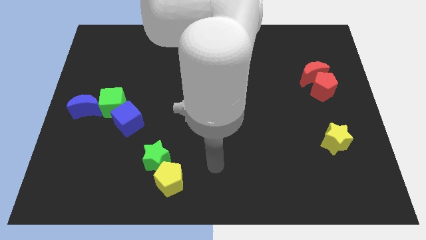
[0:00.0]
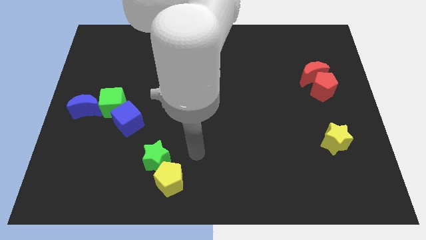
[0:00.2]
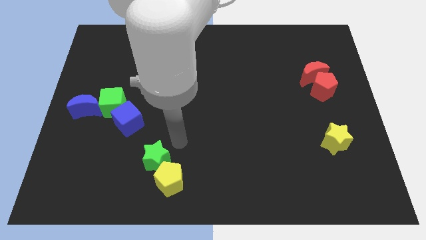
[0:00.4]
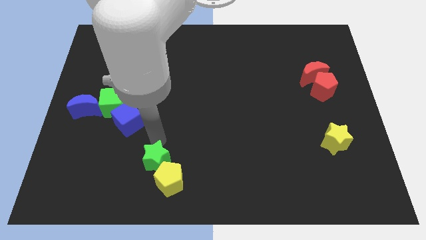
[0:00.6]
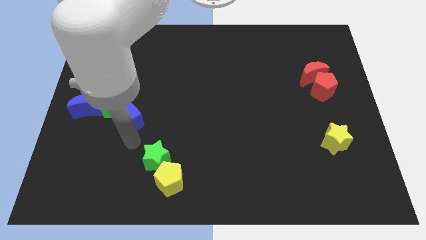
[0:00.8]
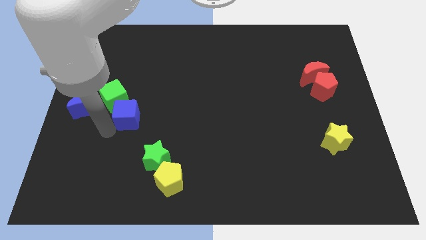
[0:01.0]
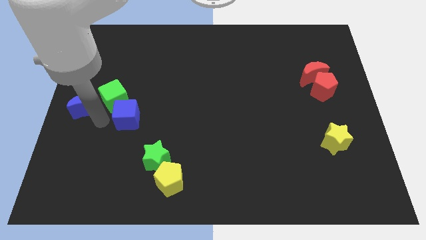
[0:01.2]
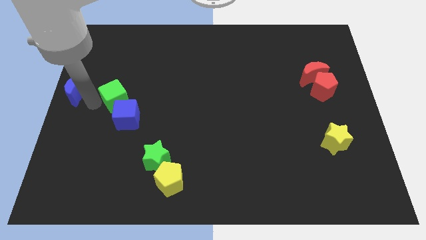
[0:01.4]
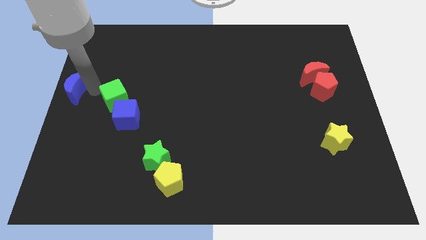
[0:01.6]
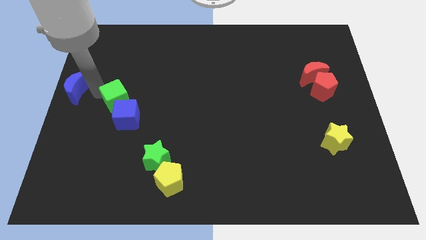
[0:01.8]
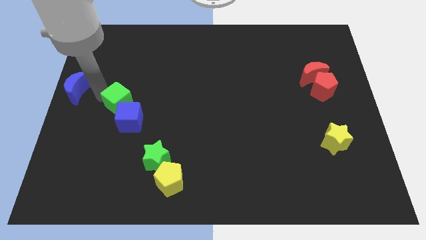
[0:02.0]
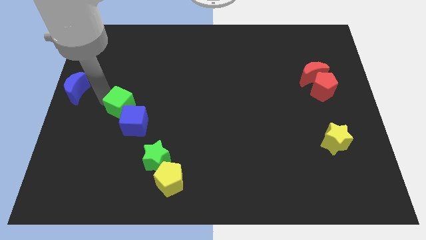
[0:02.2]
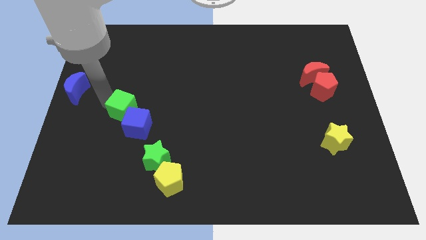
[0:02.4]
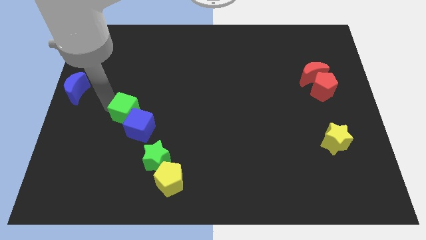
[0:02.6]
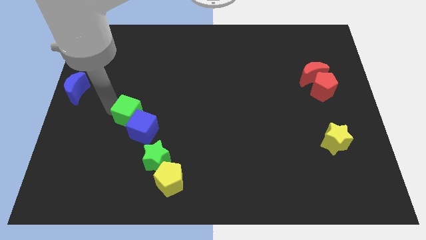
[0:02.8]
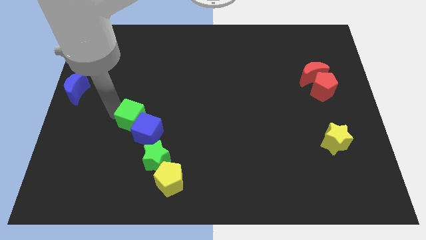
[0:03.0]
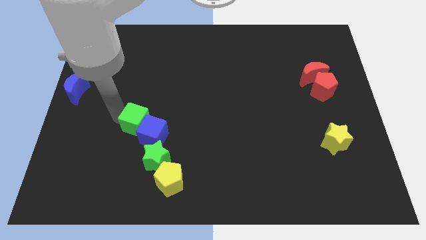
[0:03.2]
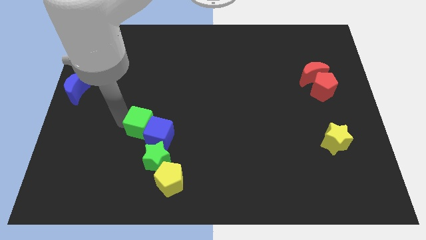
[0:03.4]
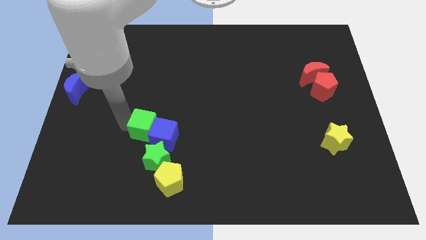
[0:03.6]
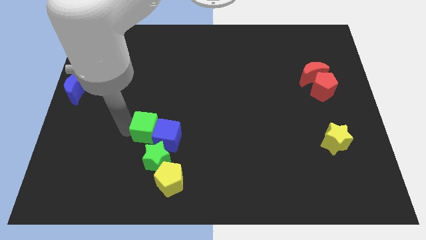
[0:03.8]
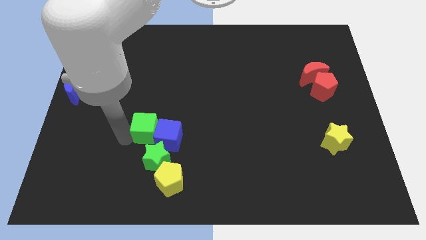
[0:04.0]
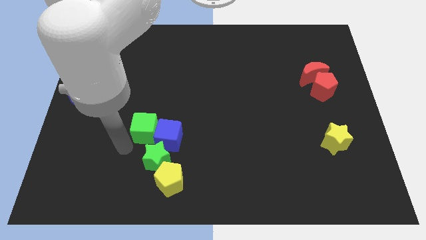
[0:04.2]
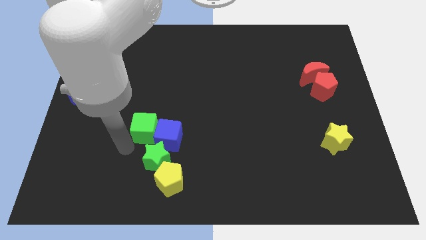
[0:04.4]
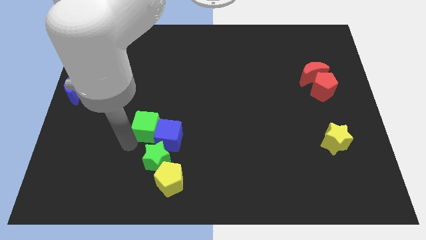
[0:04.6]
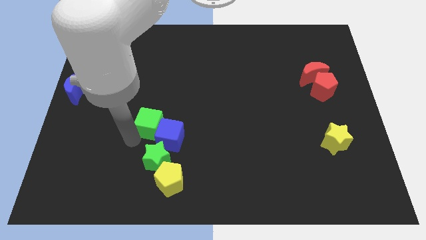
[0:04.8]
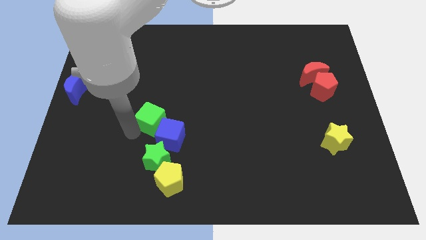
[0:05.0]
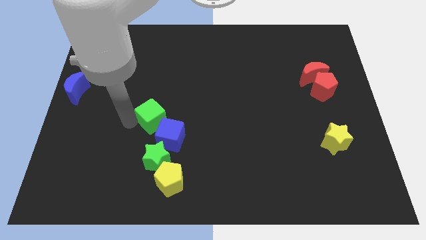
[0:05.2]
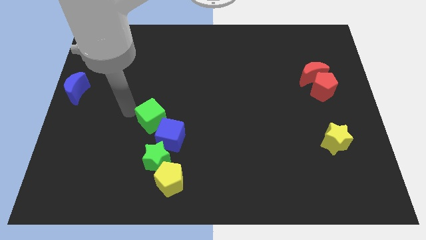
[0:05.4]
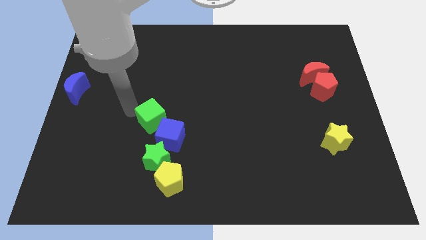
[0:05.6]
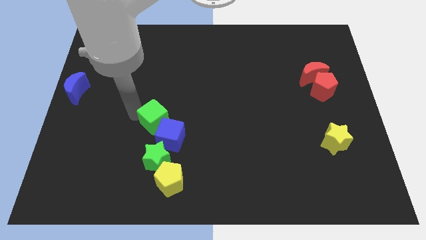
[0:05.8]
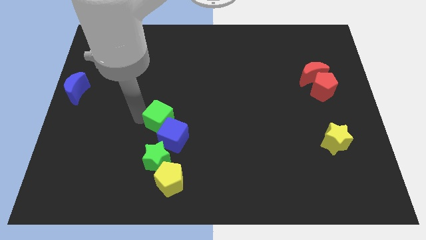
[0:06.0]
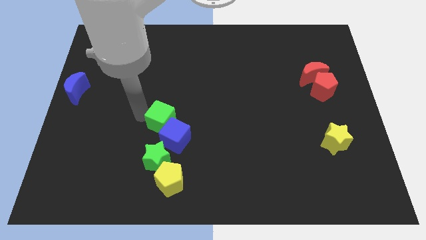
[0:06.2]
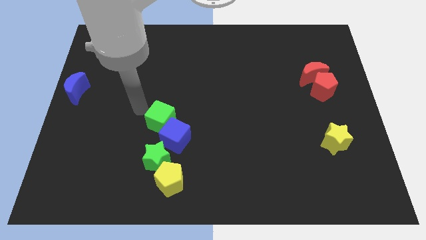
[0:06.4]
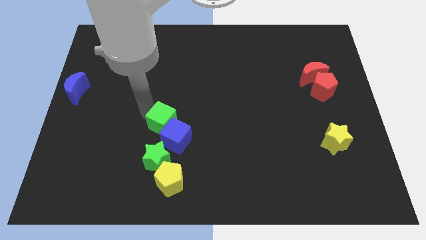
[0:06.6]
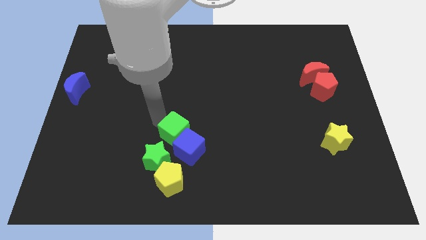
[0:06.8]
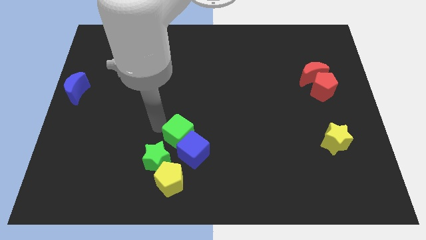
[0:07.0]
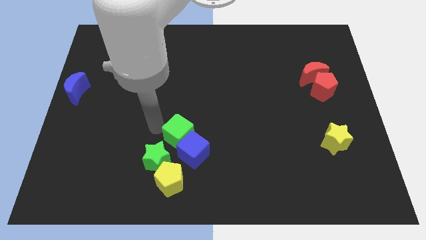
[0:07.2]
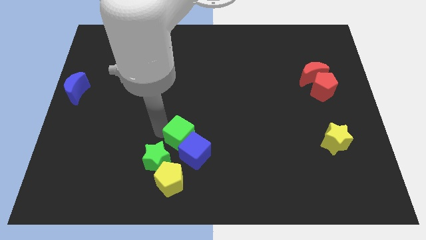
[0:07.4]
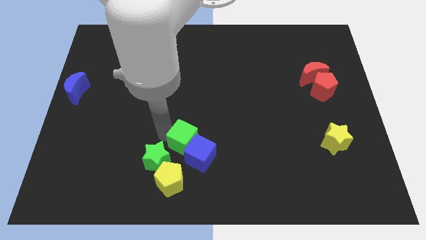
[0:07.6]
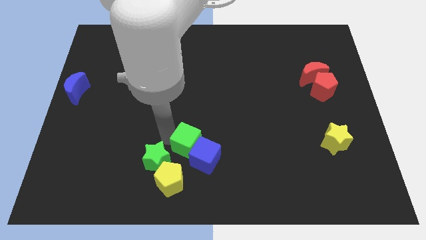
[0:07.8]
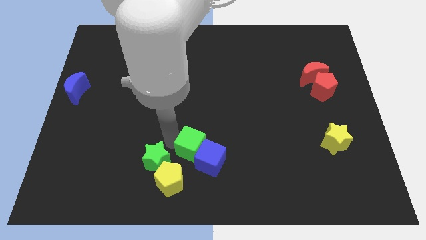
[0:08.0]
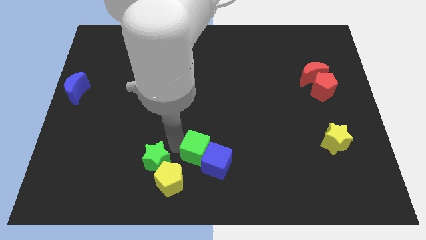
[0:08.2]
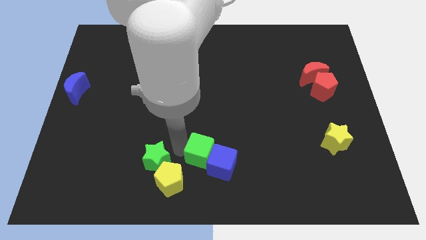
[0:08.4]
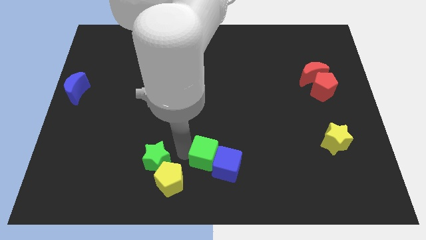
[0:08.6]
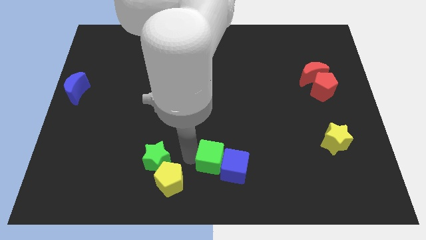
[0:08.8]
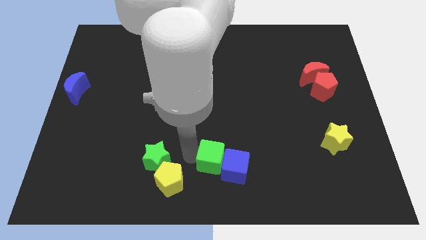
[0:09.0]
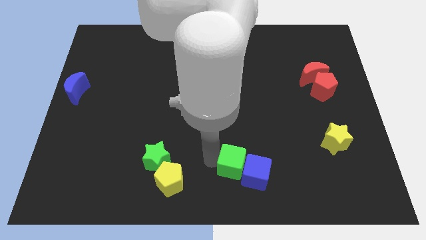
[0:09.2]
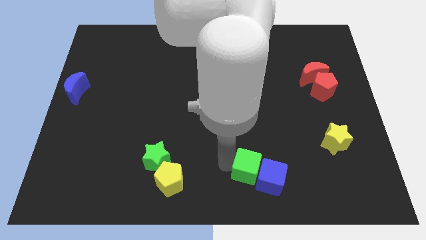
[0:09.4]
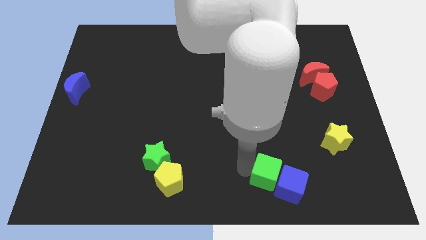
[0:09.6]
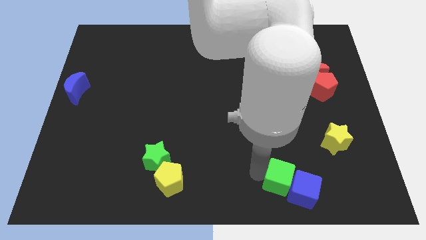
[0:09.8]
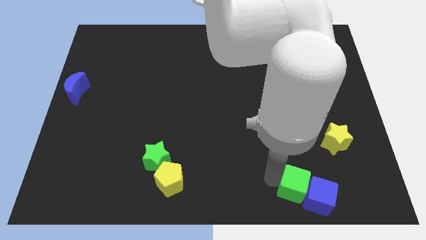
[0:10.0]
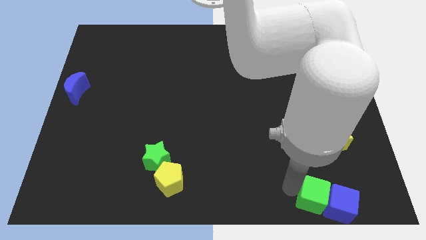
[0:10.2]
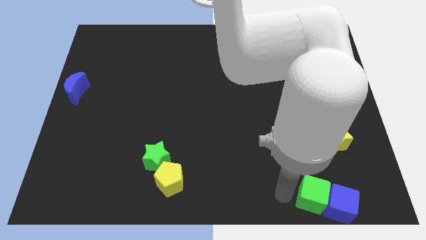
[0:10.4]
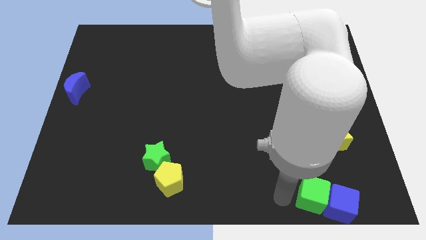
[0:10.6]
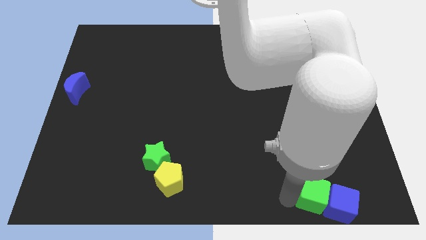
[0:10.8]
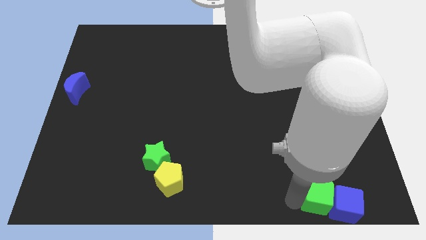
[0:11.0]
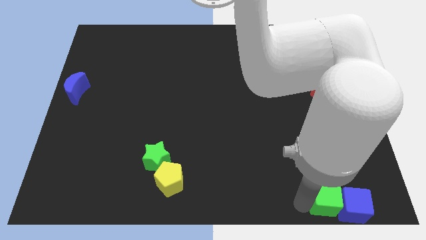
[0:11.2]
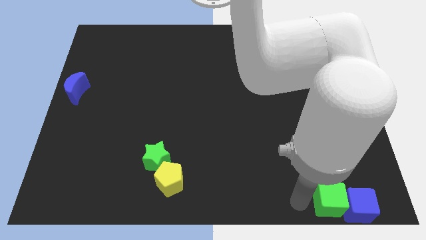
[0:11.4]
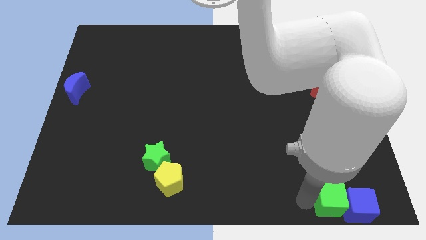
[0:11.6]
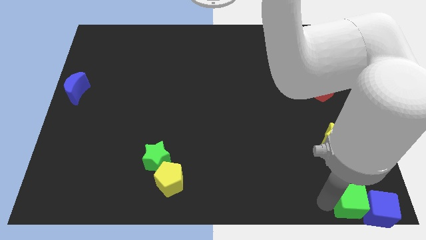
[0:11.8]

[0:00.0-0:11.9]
move the green cube to the bottom right corner

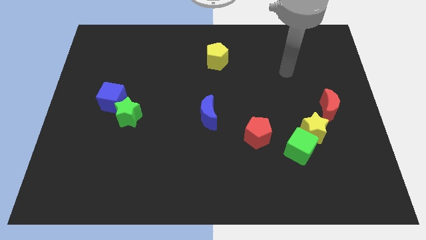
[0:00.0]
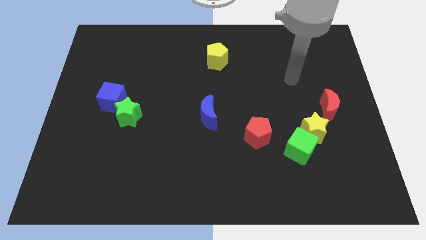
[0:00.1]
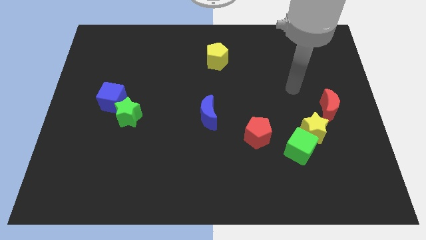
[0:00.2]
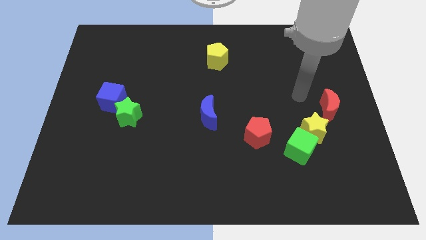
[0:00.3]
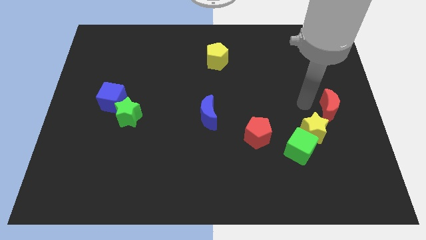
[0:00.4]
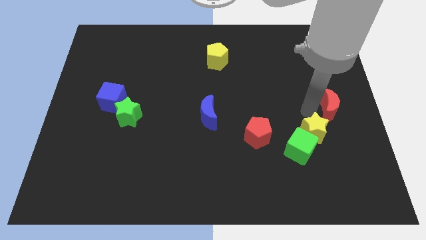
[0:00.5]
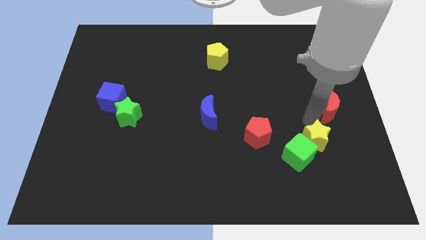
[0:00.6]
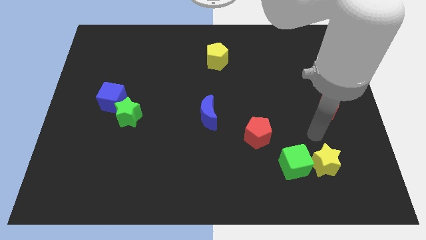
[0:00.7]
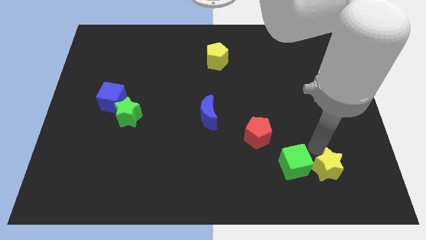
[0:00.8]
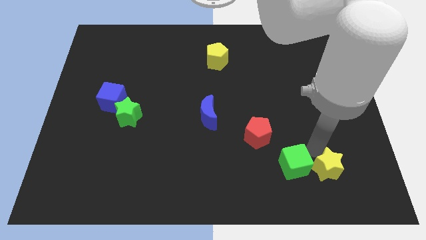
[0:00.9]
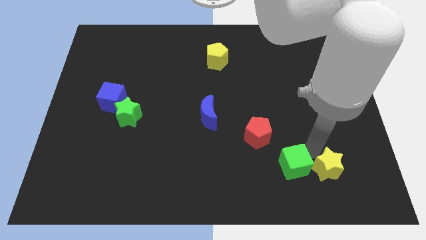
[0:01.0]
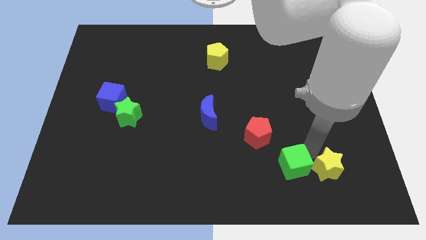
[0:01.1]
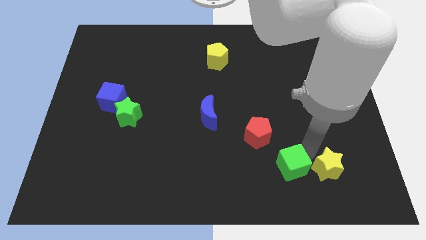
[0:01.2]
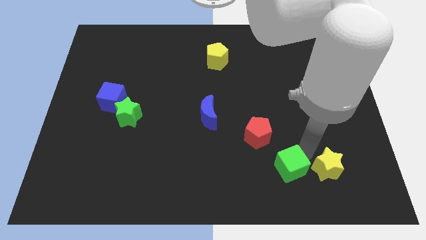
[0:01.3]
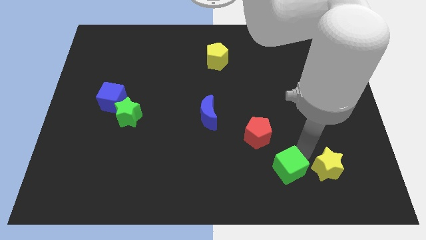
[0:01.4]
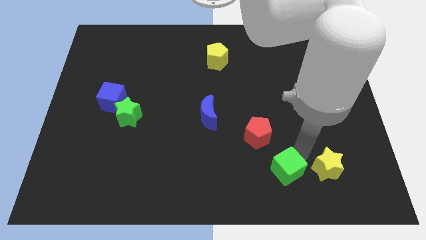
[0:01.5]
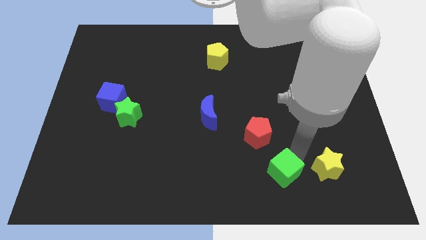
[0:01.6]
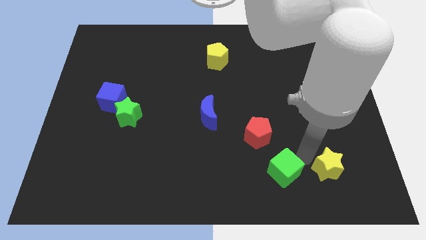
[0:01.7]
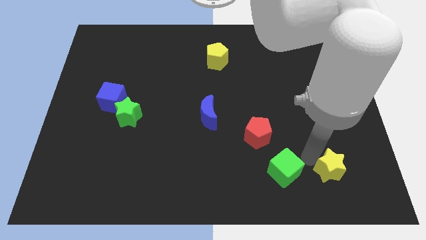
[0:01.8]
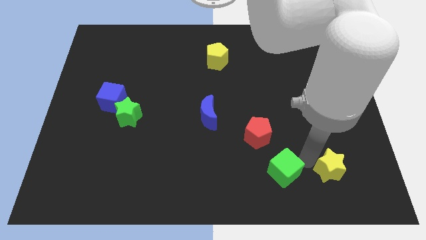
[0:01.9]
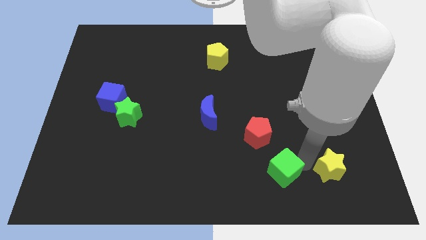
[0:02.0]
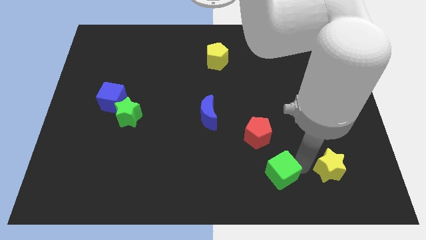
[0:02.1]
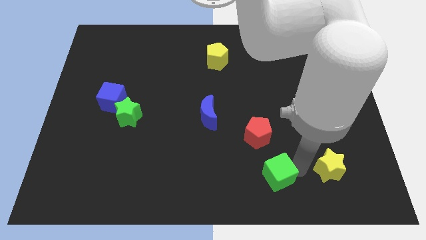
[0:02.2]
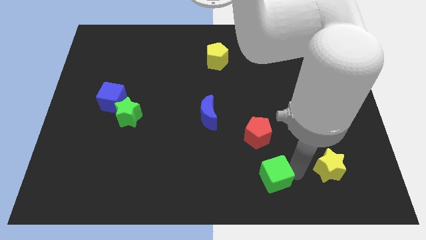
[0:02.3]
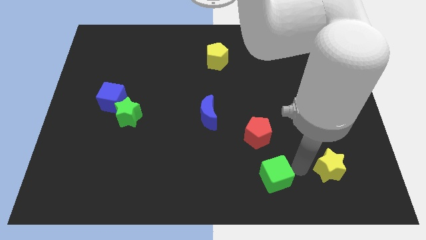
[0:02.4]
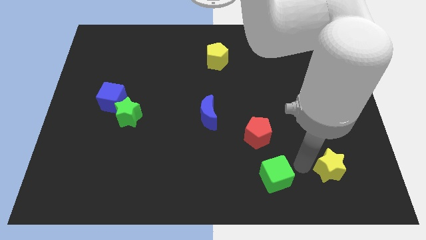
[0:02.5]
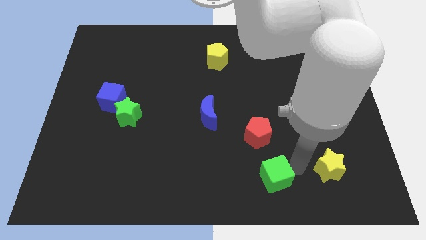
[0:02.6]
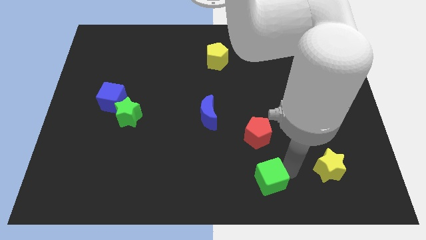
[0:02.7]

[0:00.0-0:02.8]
push the green cube to the bottom
